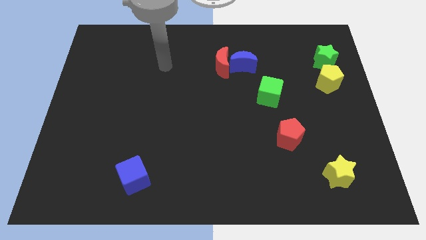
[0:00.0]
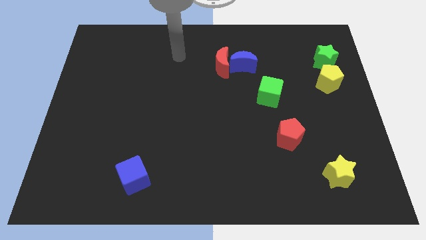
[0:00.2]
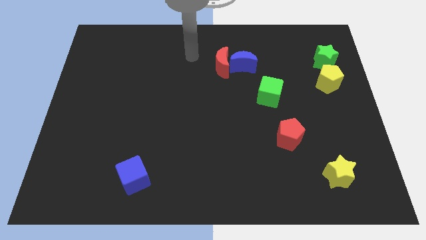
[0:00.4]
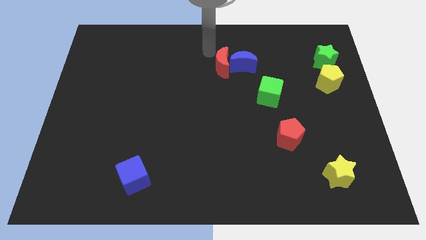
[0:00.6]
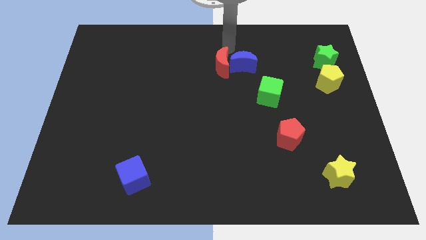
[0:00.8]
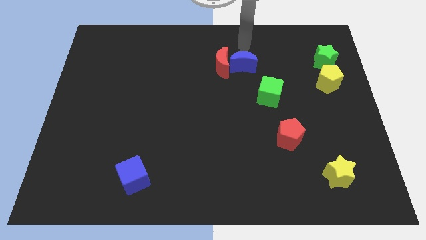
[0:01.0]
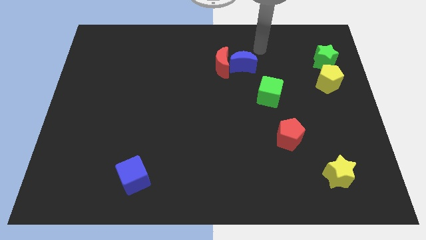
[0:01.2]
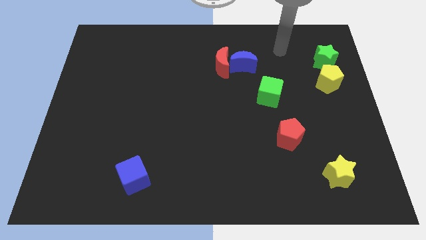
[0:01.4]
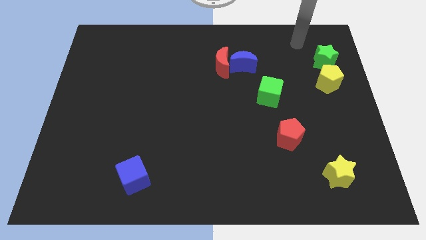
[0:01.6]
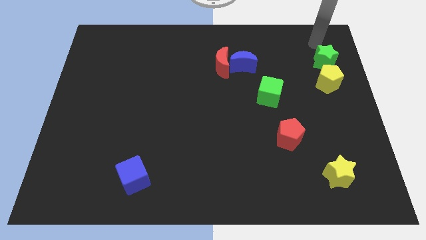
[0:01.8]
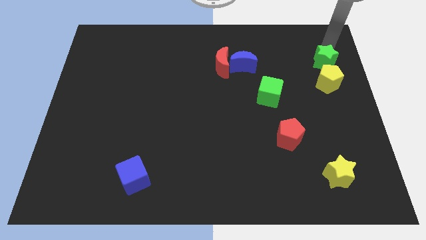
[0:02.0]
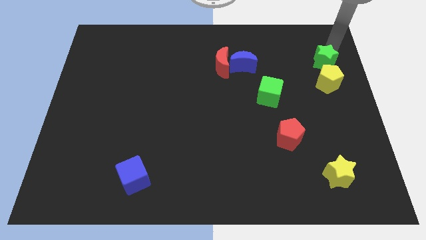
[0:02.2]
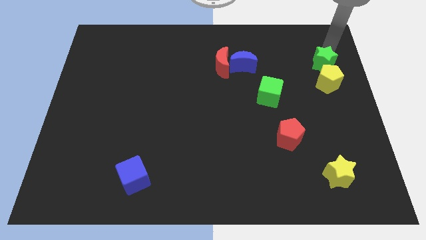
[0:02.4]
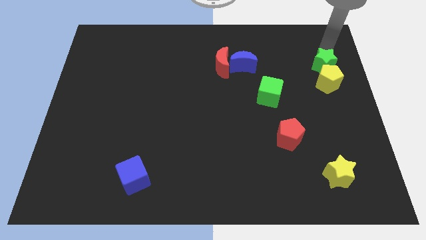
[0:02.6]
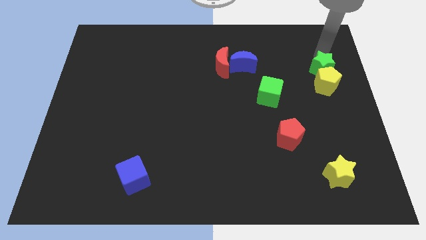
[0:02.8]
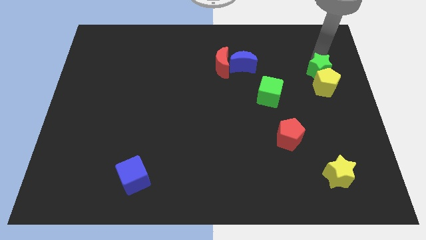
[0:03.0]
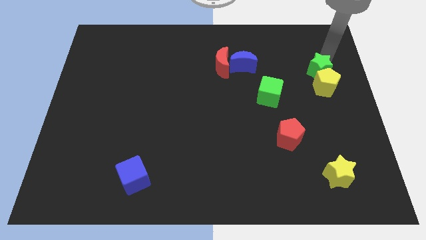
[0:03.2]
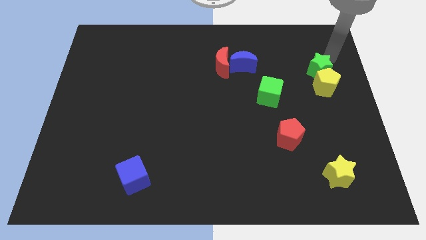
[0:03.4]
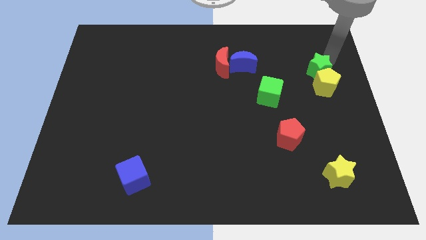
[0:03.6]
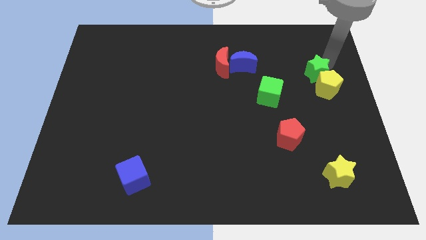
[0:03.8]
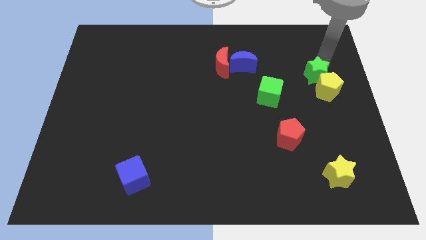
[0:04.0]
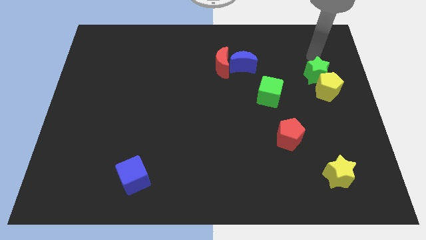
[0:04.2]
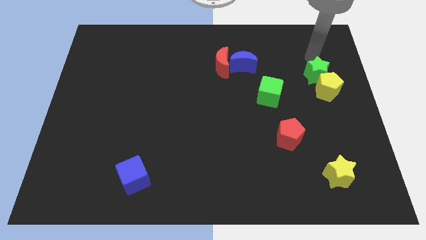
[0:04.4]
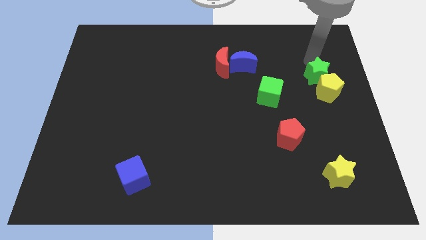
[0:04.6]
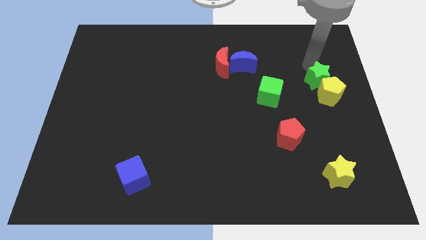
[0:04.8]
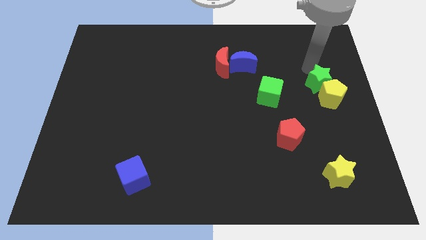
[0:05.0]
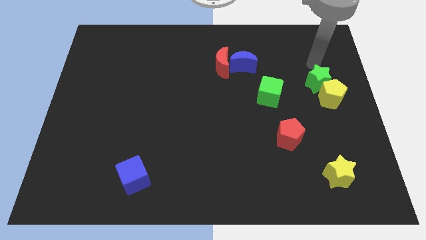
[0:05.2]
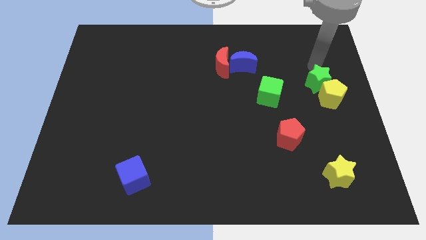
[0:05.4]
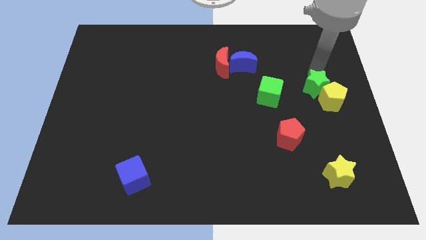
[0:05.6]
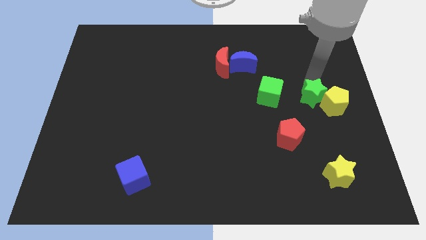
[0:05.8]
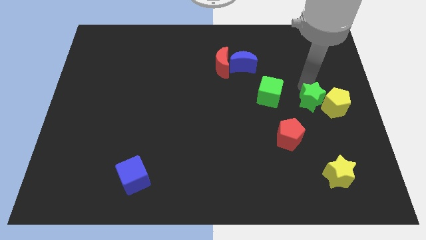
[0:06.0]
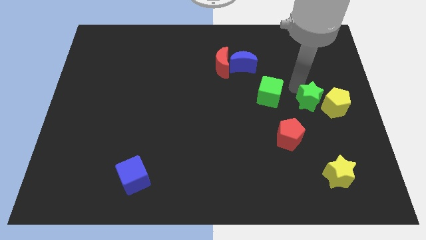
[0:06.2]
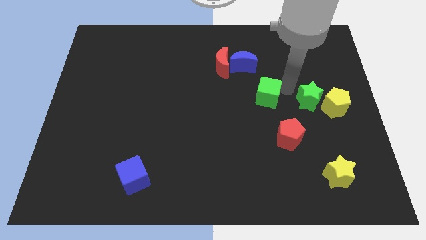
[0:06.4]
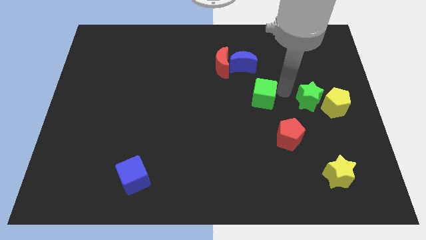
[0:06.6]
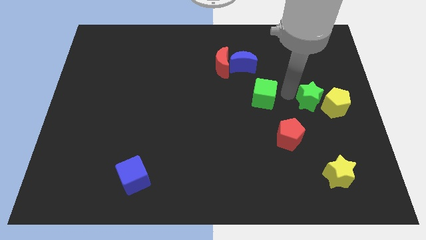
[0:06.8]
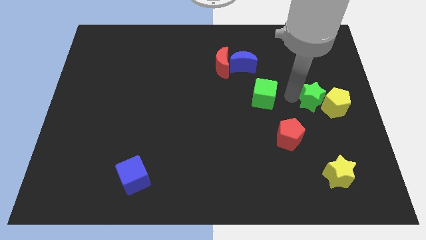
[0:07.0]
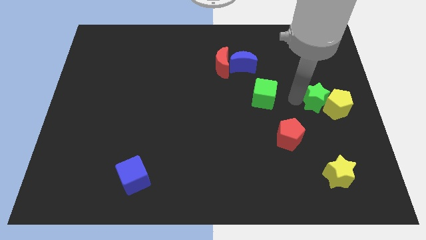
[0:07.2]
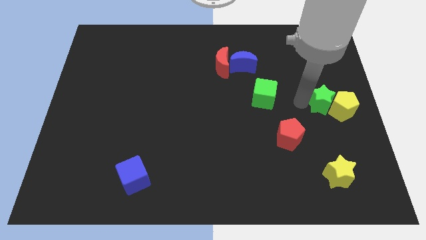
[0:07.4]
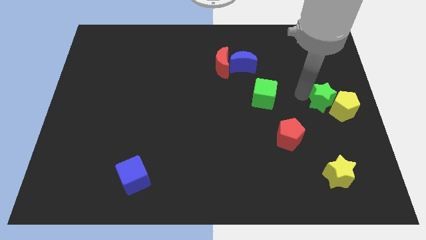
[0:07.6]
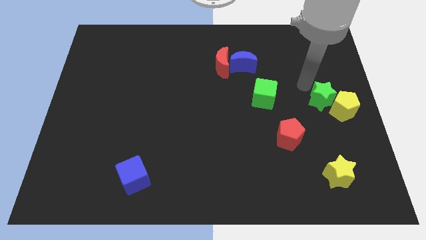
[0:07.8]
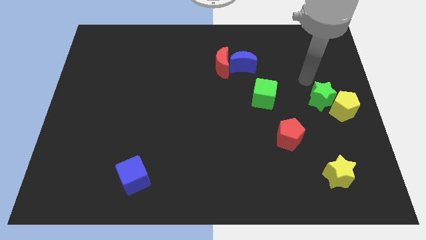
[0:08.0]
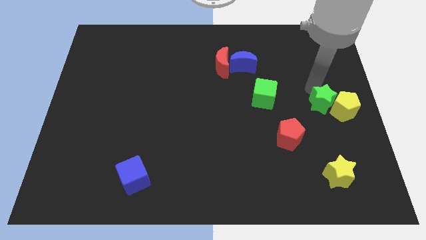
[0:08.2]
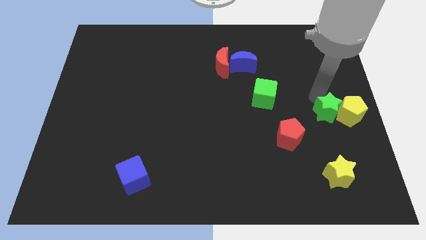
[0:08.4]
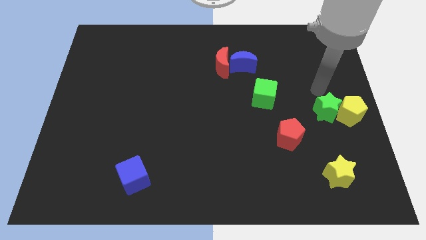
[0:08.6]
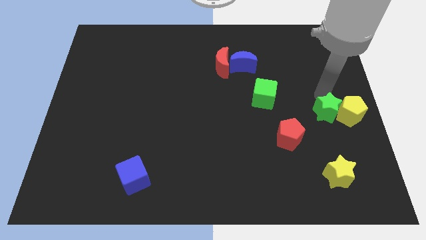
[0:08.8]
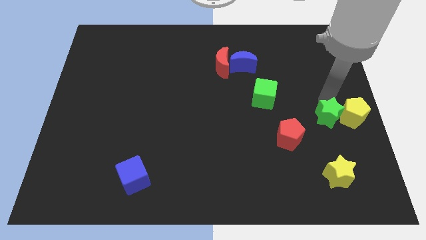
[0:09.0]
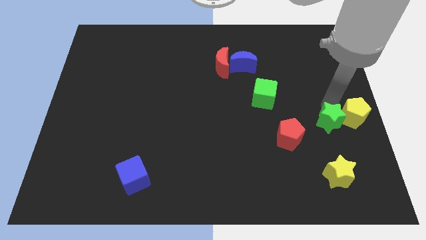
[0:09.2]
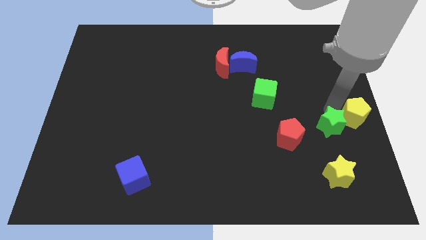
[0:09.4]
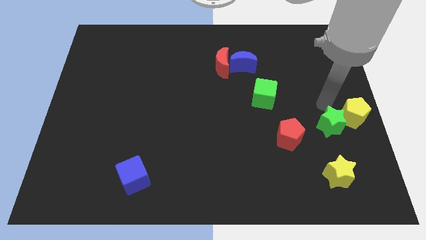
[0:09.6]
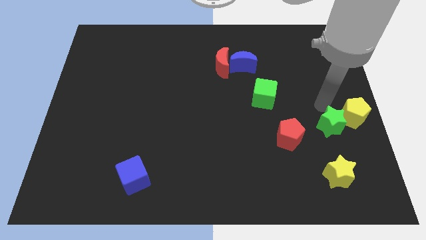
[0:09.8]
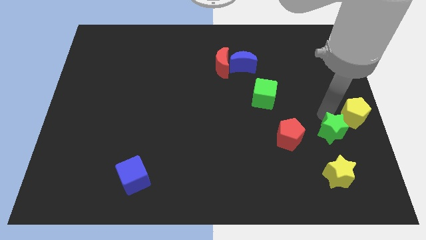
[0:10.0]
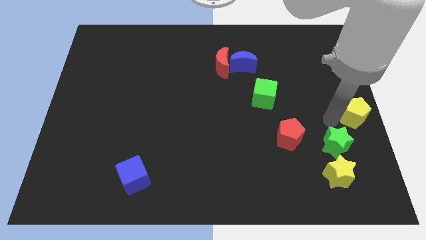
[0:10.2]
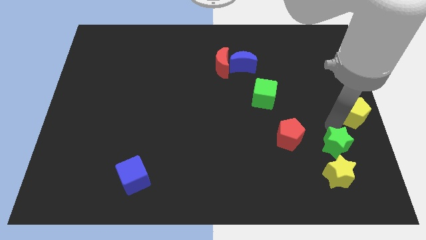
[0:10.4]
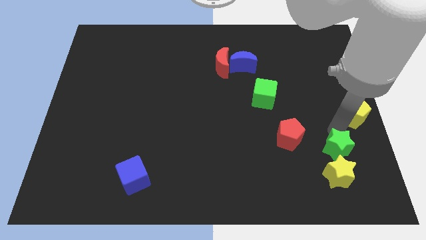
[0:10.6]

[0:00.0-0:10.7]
put the green star to the yellow star

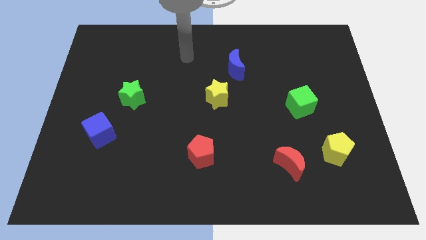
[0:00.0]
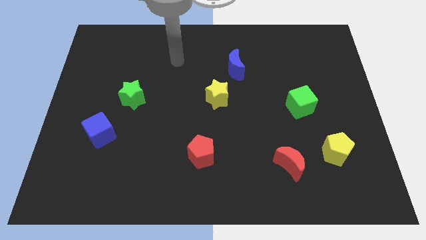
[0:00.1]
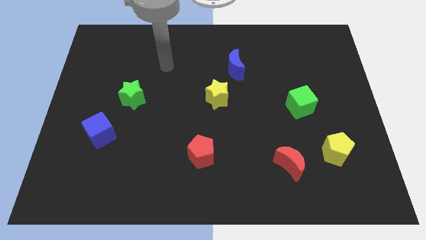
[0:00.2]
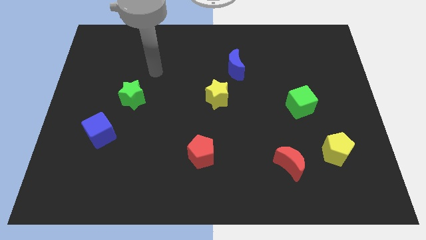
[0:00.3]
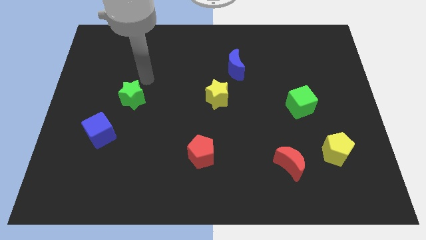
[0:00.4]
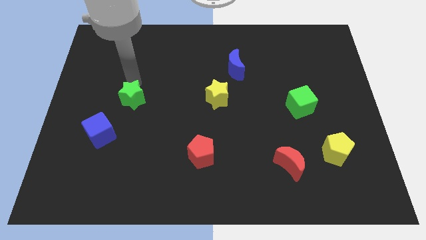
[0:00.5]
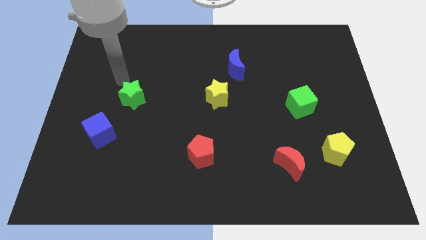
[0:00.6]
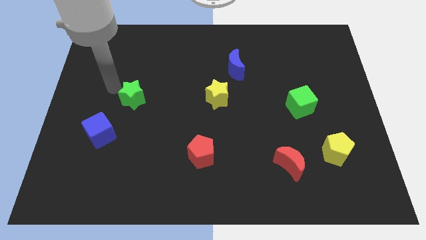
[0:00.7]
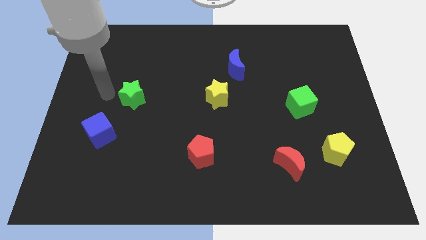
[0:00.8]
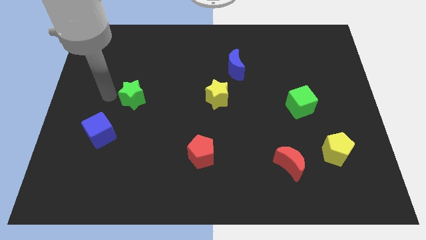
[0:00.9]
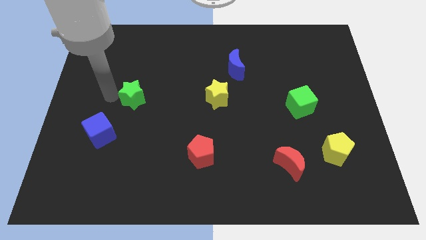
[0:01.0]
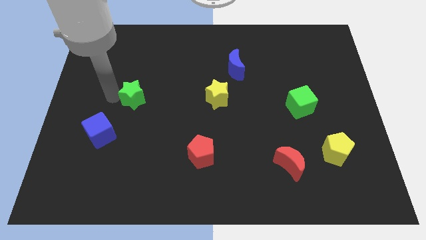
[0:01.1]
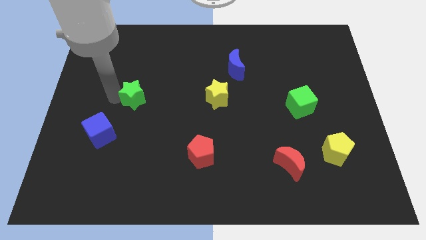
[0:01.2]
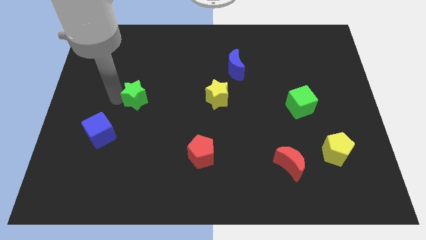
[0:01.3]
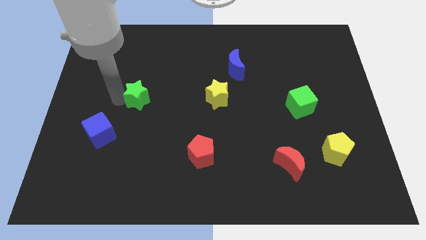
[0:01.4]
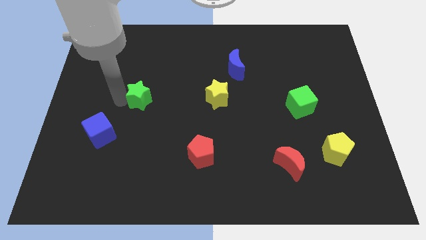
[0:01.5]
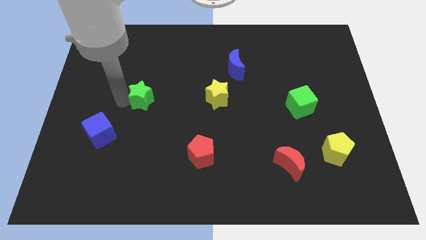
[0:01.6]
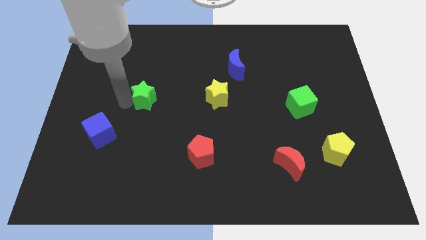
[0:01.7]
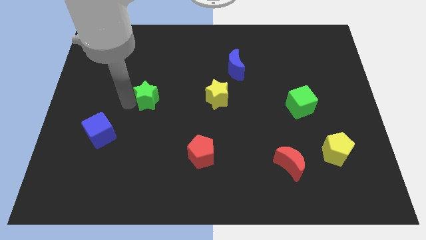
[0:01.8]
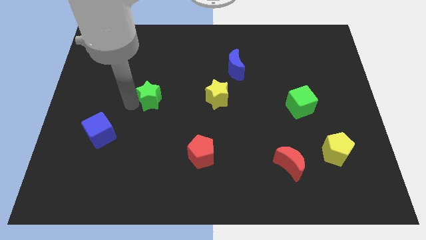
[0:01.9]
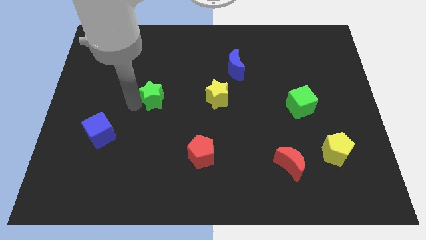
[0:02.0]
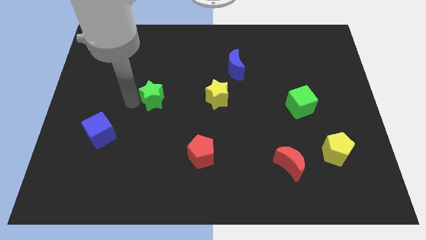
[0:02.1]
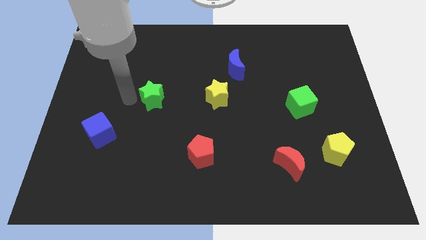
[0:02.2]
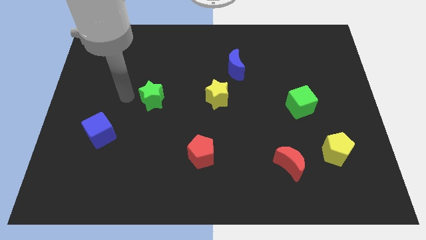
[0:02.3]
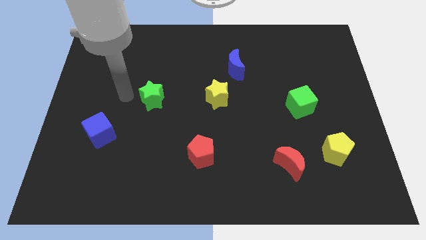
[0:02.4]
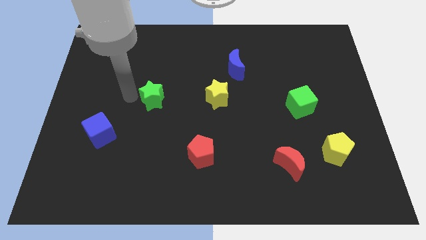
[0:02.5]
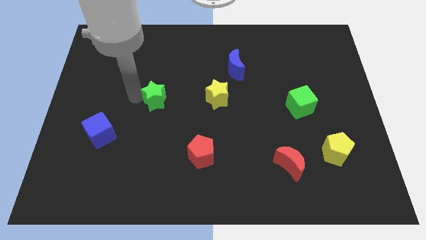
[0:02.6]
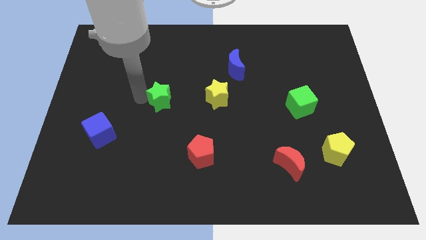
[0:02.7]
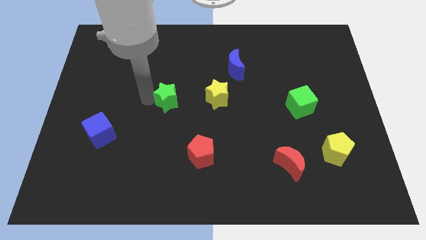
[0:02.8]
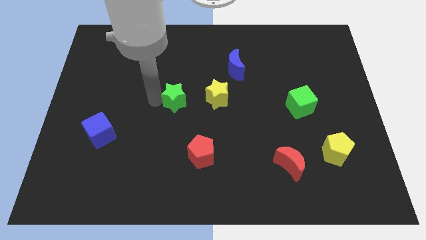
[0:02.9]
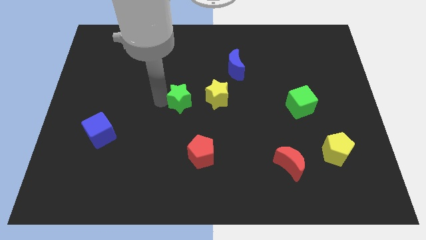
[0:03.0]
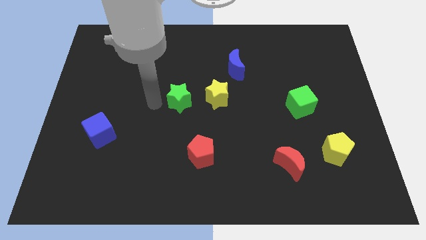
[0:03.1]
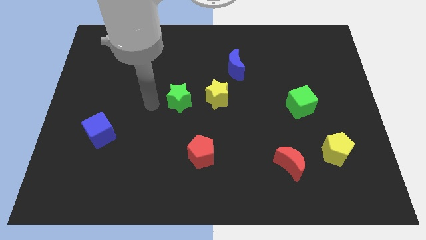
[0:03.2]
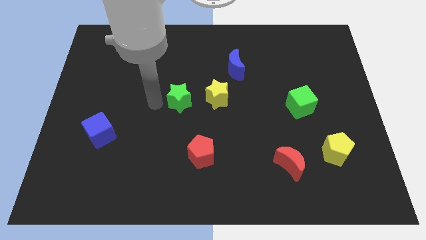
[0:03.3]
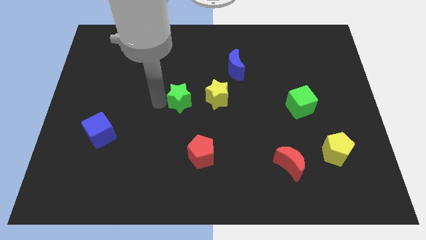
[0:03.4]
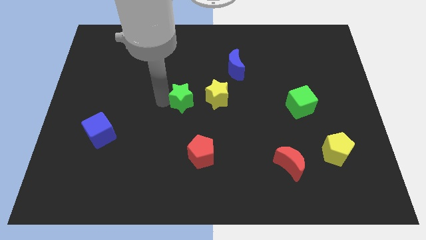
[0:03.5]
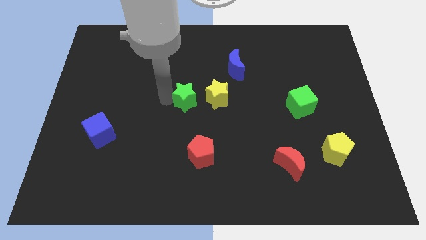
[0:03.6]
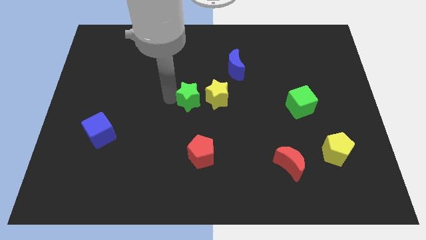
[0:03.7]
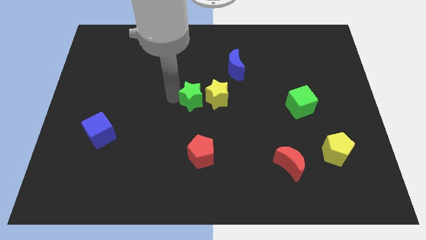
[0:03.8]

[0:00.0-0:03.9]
push the green star next to the yellow star
